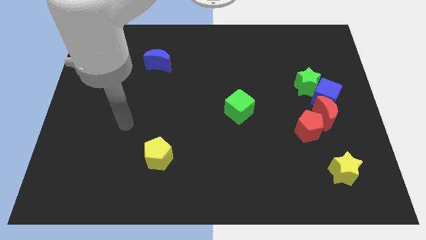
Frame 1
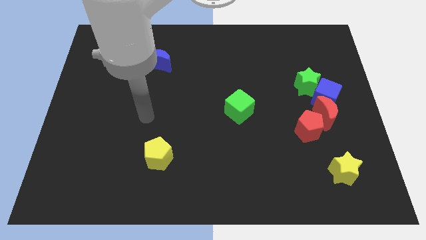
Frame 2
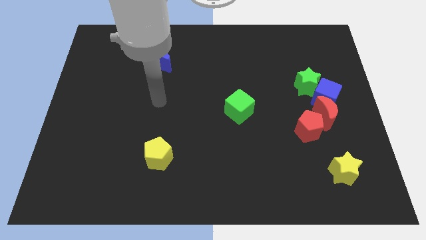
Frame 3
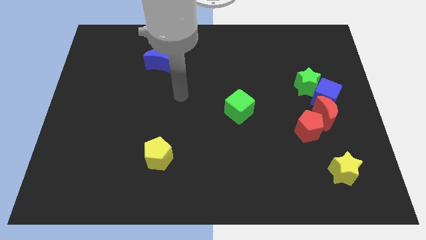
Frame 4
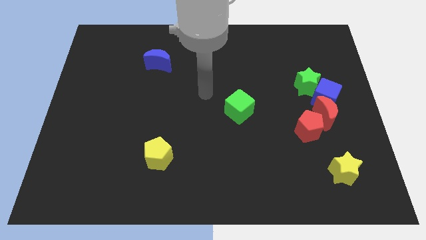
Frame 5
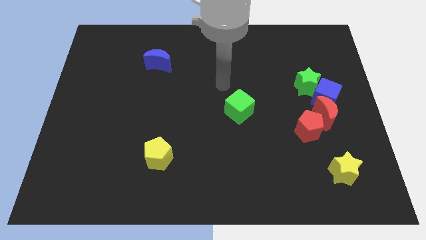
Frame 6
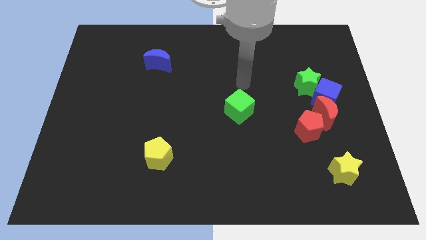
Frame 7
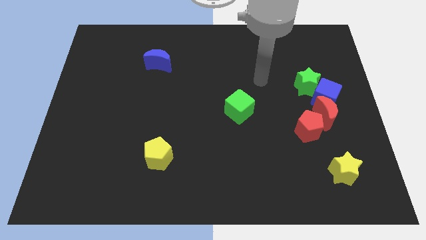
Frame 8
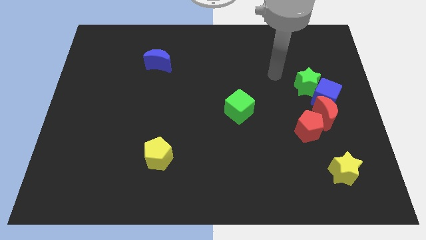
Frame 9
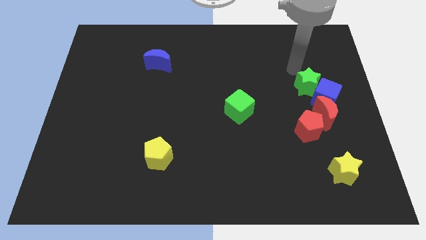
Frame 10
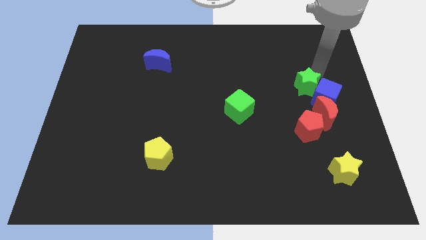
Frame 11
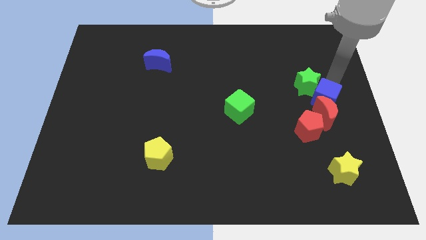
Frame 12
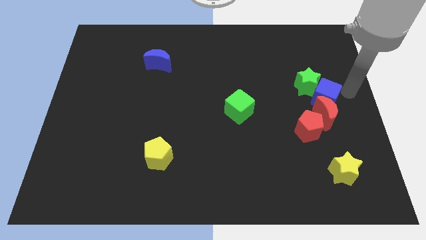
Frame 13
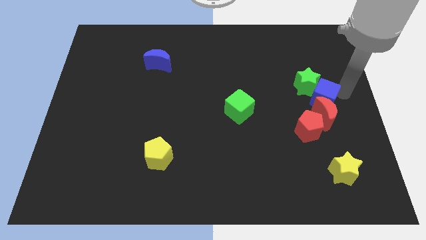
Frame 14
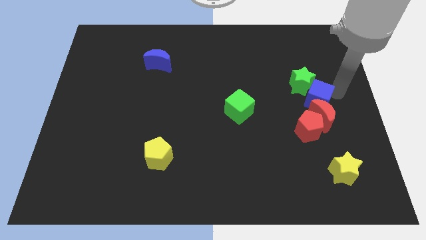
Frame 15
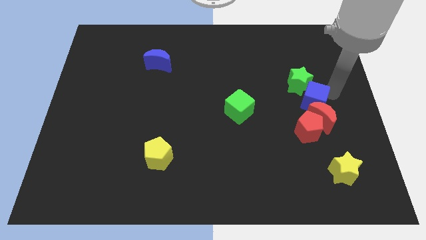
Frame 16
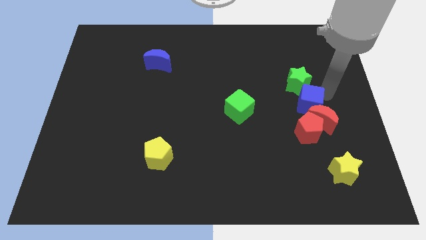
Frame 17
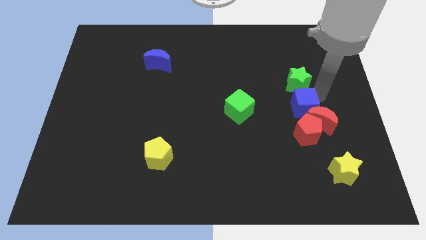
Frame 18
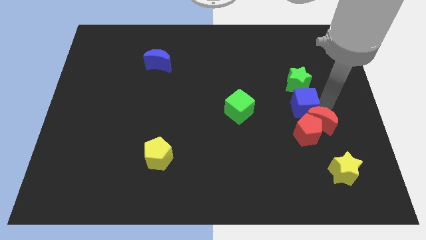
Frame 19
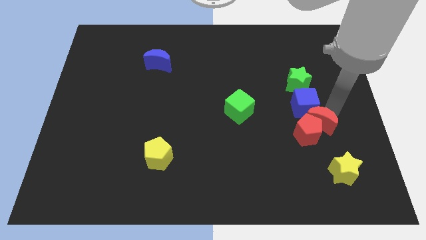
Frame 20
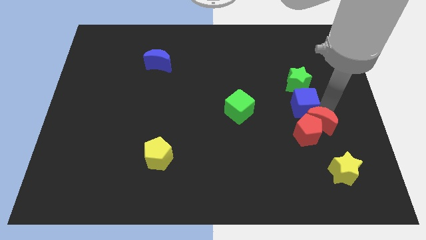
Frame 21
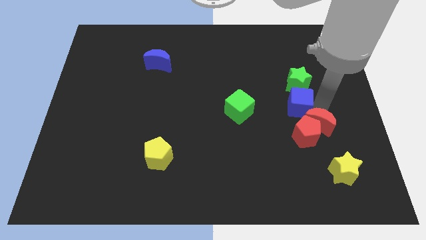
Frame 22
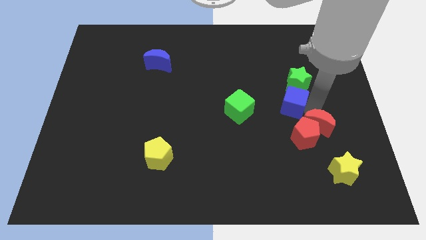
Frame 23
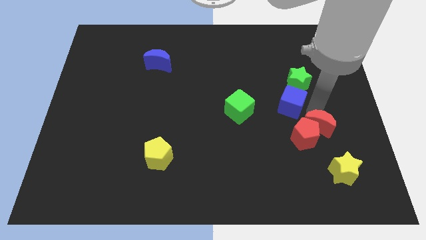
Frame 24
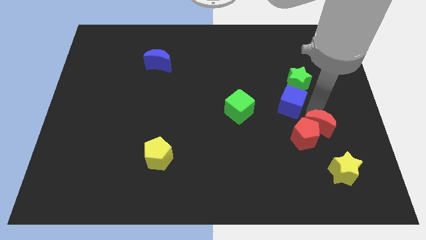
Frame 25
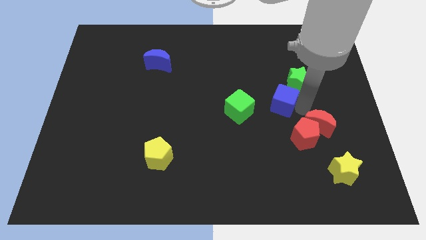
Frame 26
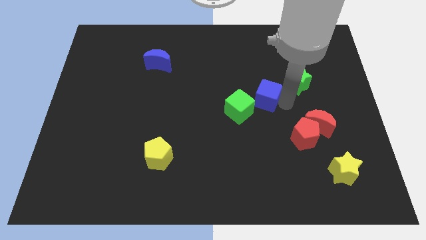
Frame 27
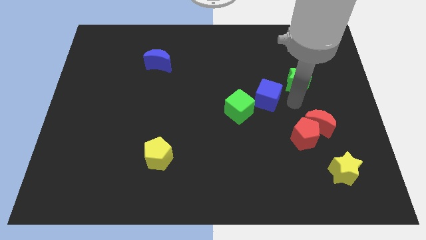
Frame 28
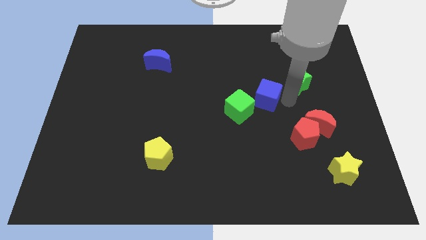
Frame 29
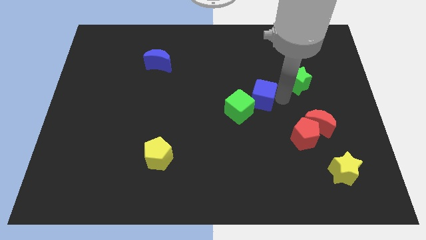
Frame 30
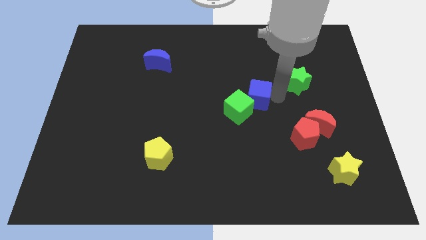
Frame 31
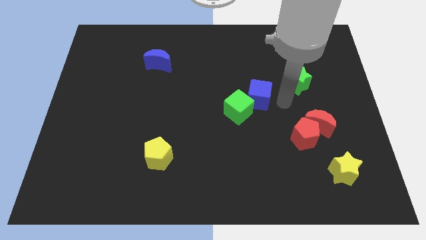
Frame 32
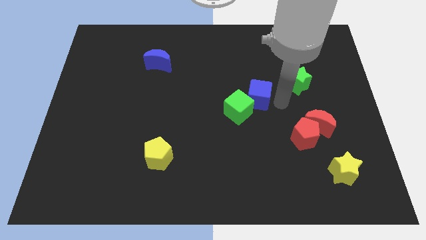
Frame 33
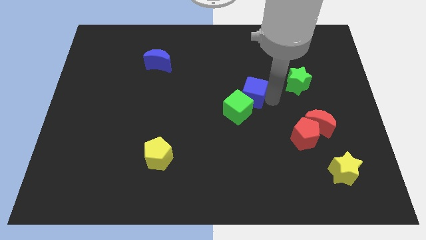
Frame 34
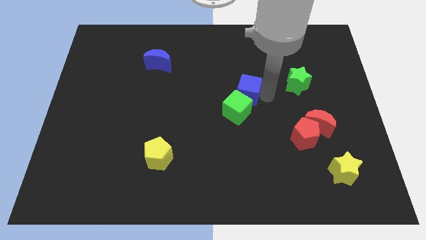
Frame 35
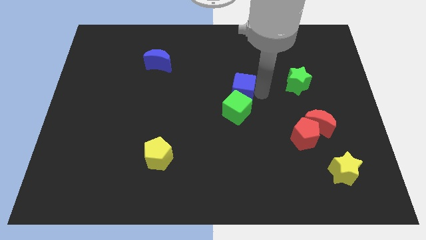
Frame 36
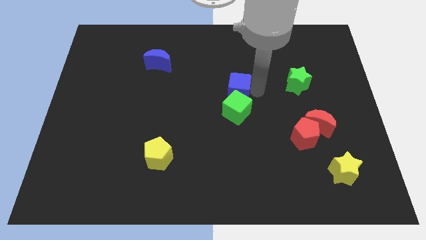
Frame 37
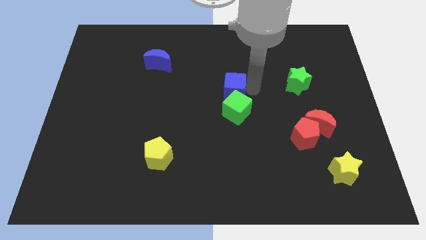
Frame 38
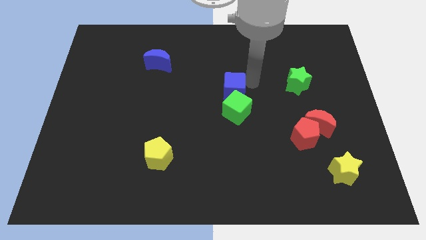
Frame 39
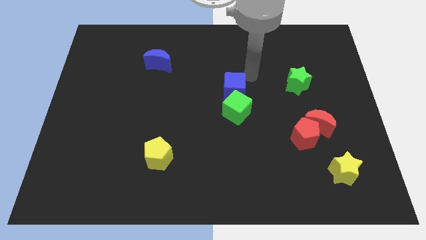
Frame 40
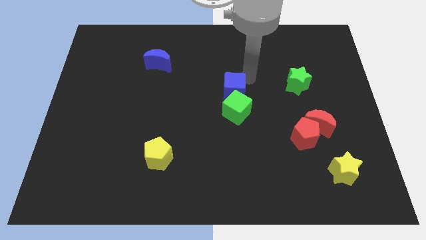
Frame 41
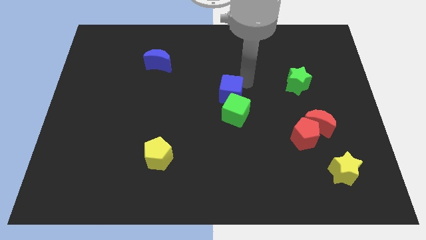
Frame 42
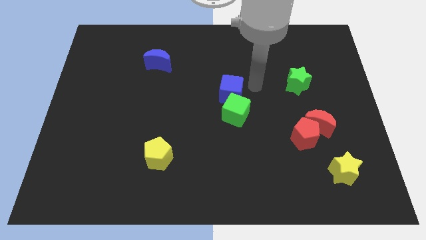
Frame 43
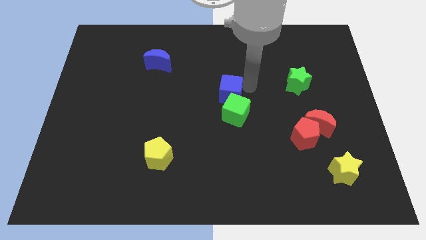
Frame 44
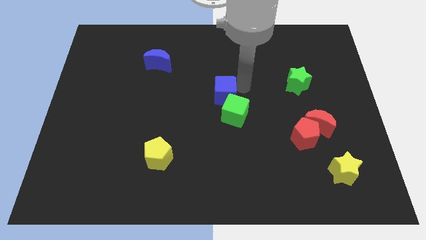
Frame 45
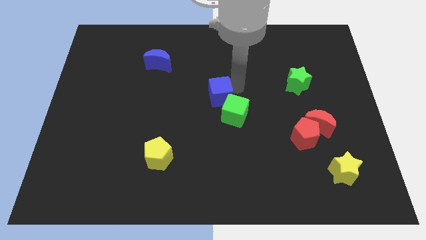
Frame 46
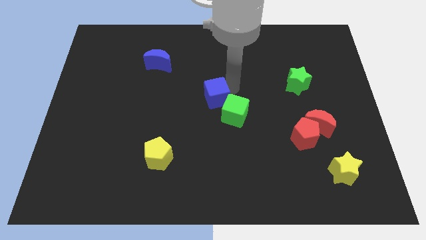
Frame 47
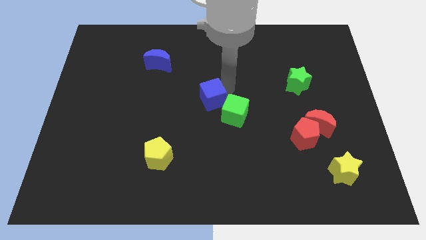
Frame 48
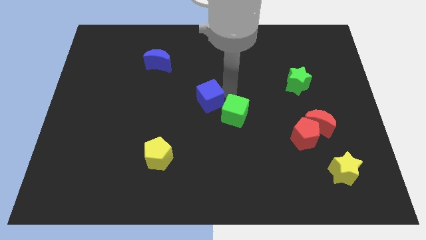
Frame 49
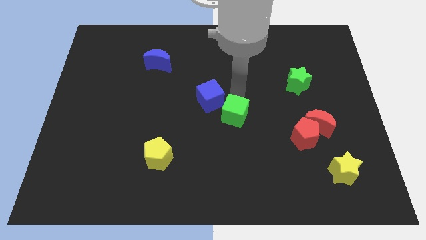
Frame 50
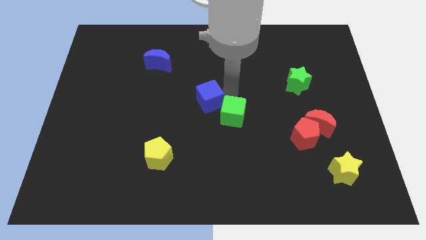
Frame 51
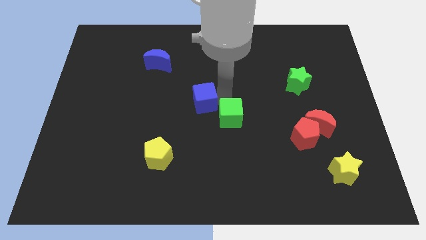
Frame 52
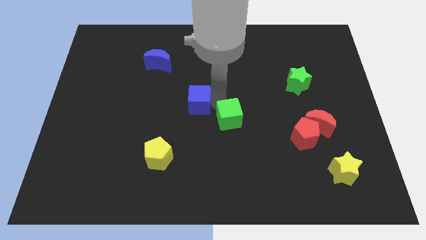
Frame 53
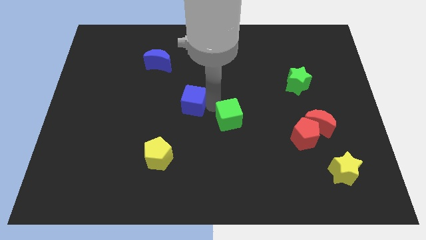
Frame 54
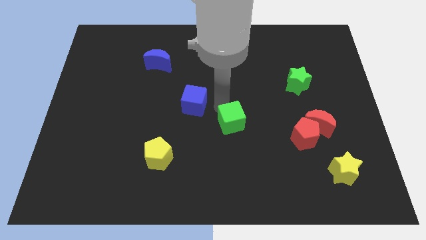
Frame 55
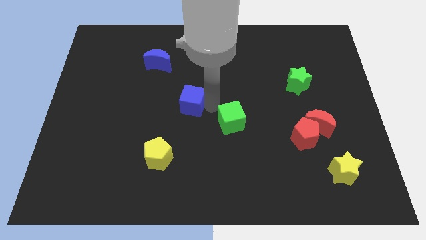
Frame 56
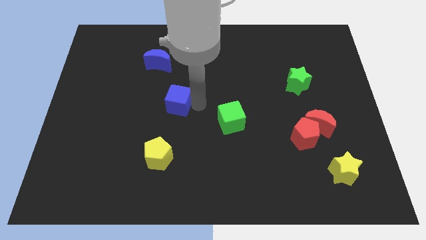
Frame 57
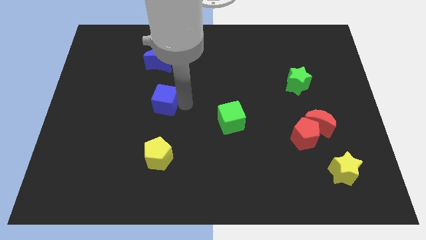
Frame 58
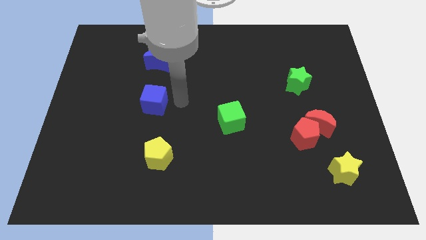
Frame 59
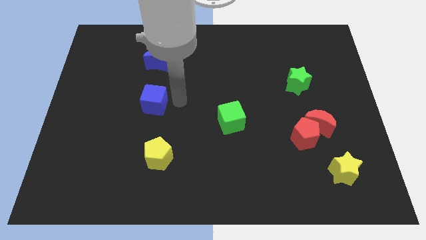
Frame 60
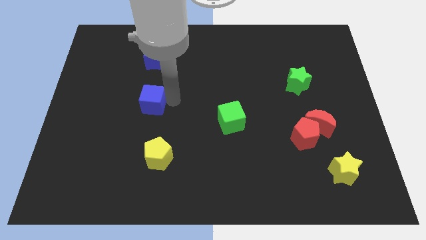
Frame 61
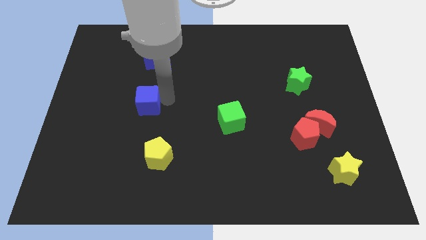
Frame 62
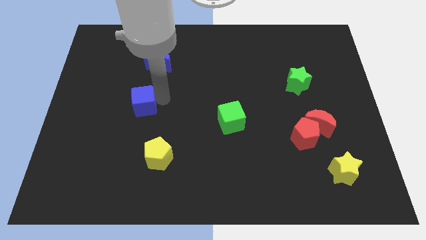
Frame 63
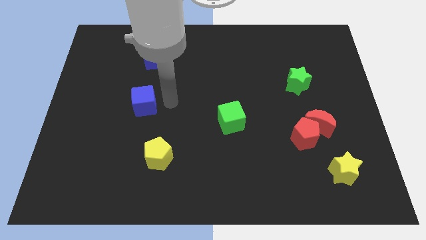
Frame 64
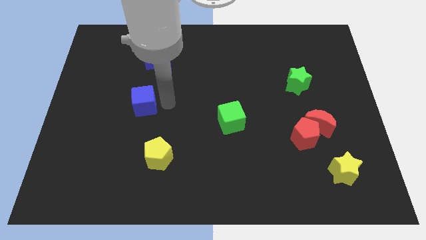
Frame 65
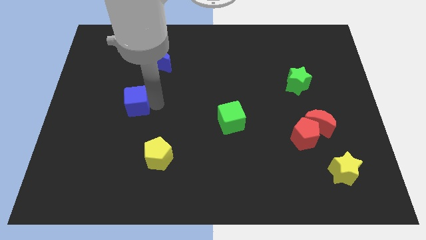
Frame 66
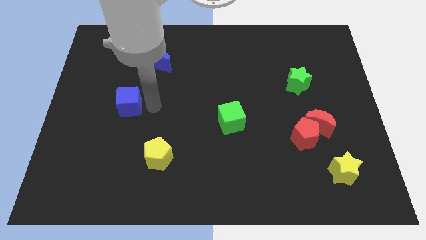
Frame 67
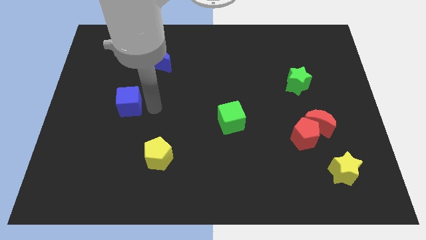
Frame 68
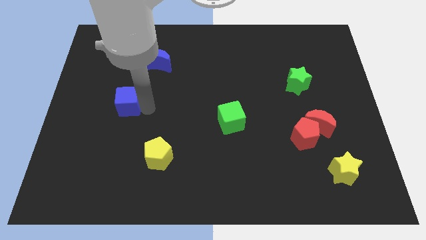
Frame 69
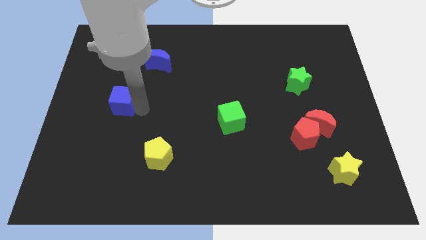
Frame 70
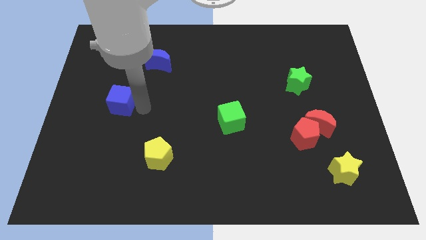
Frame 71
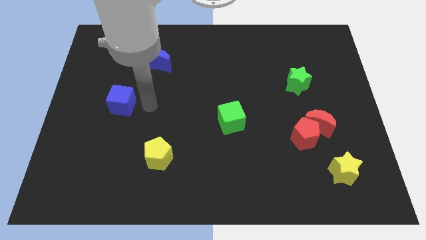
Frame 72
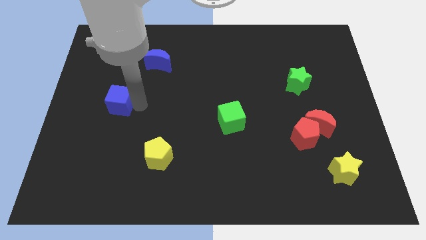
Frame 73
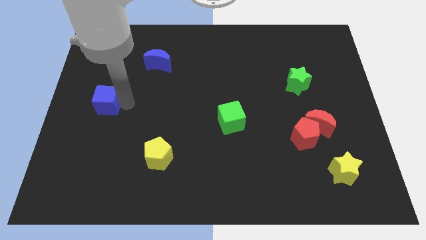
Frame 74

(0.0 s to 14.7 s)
move the blue cube to the left side of the board

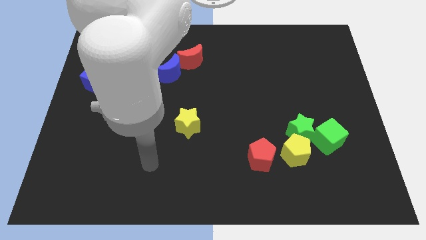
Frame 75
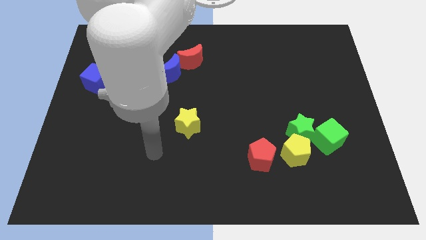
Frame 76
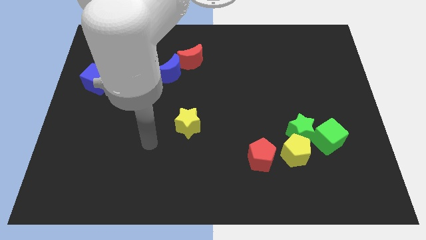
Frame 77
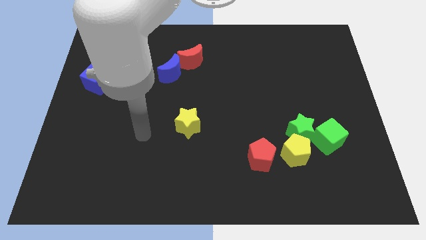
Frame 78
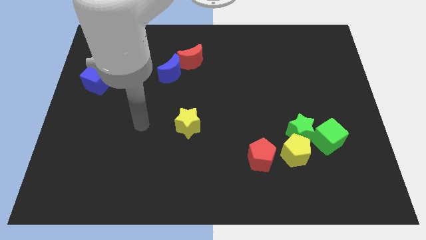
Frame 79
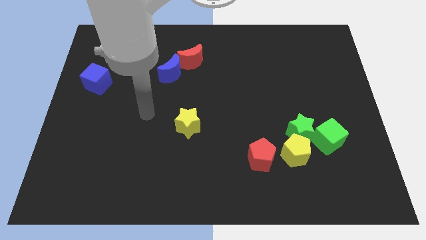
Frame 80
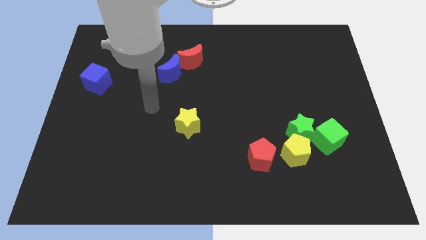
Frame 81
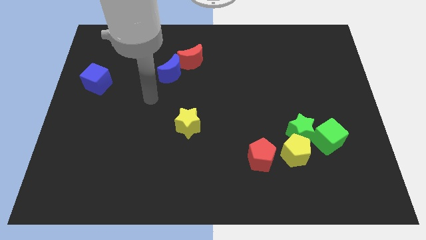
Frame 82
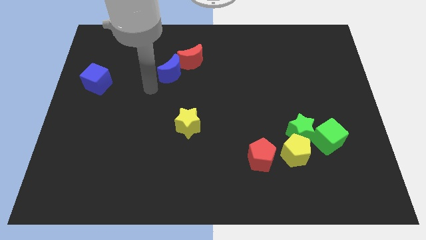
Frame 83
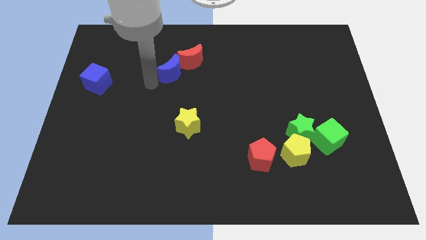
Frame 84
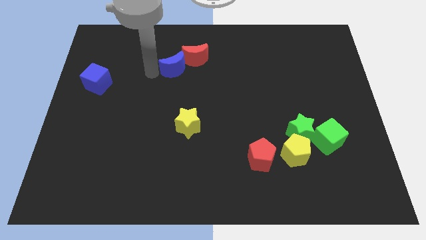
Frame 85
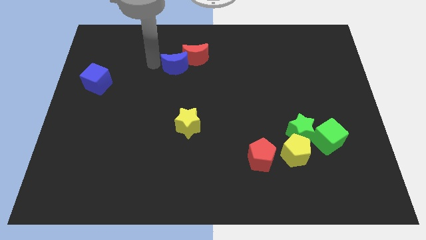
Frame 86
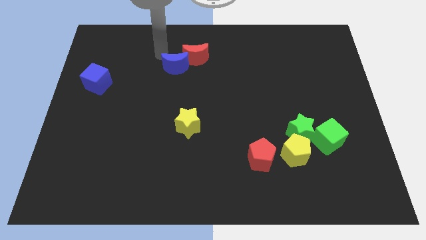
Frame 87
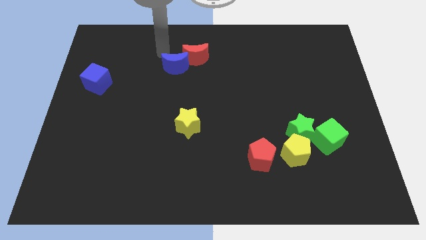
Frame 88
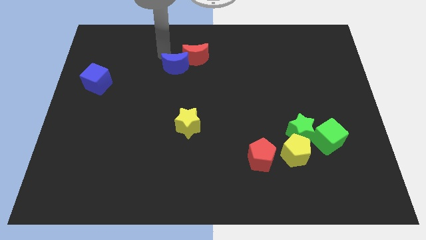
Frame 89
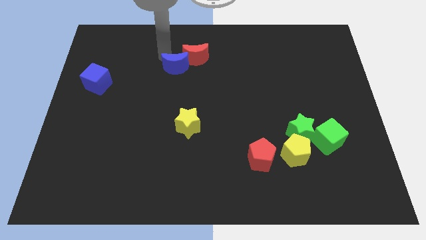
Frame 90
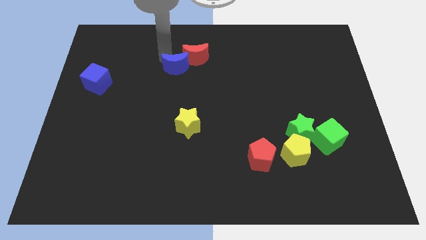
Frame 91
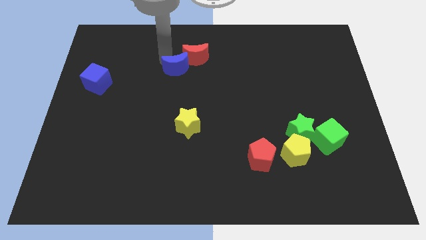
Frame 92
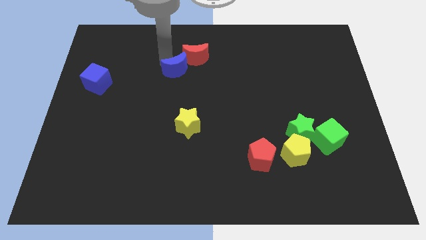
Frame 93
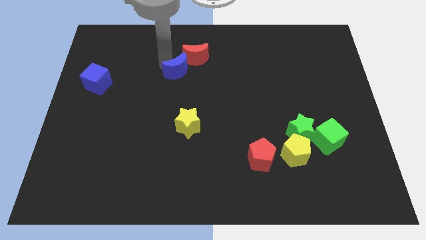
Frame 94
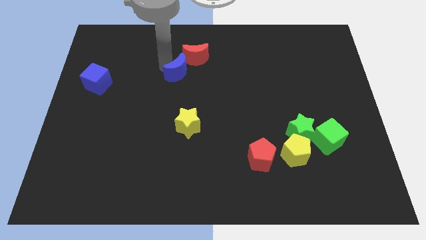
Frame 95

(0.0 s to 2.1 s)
put the blue moon to the middle
